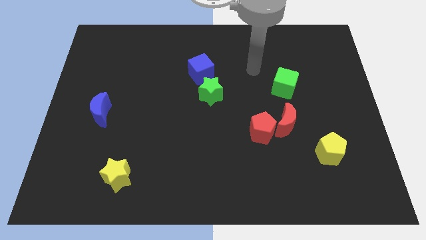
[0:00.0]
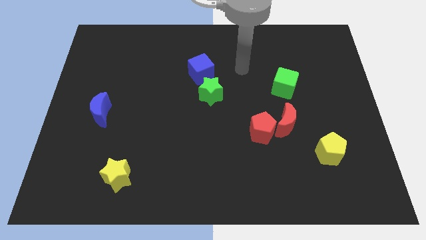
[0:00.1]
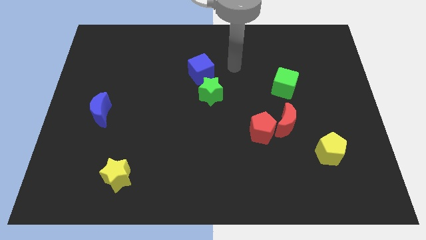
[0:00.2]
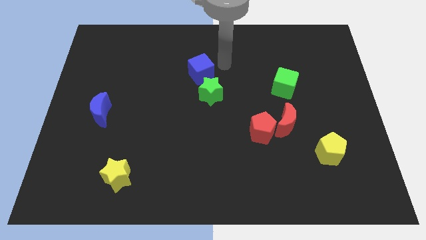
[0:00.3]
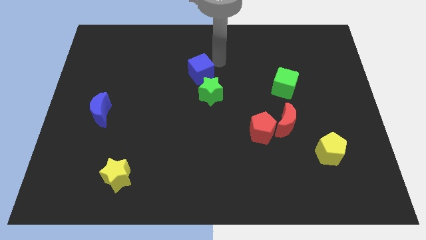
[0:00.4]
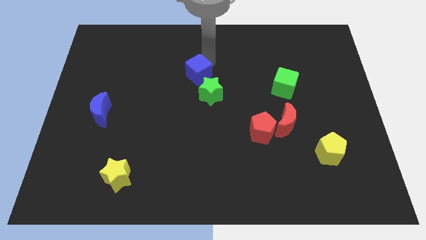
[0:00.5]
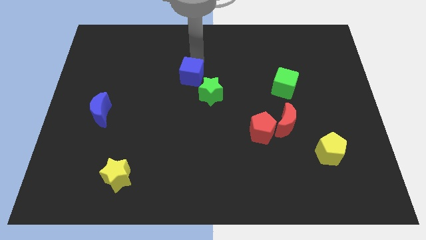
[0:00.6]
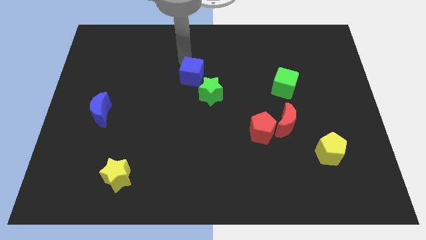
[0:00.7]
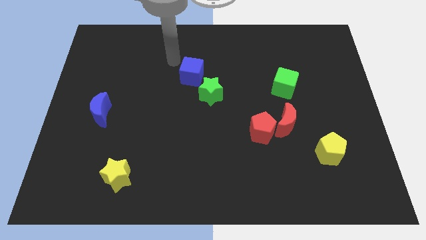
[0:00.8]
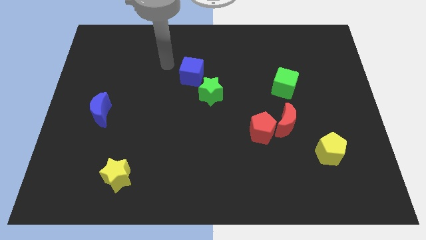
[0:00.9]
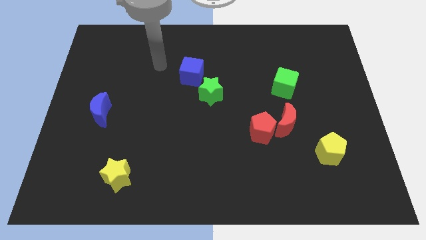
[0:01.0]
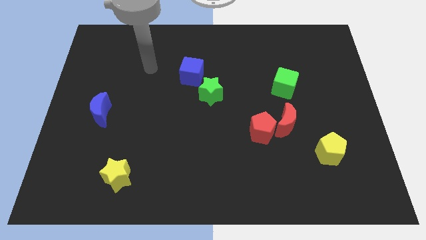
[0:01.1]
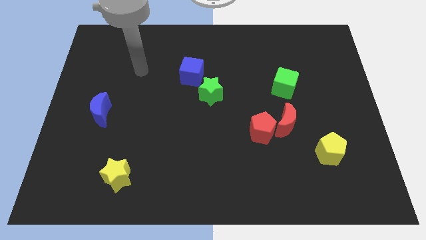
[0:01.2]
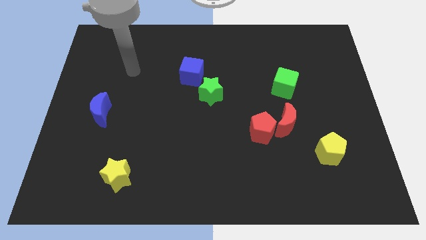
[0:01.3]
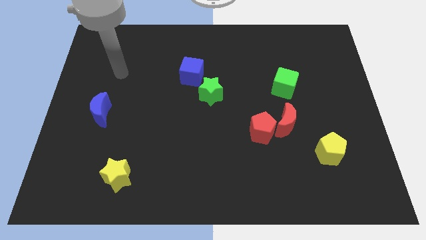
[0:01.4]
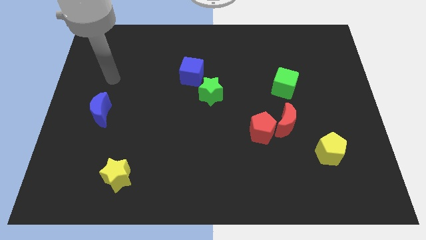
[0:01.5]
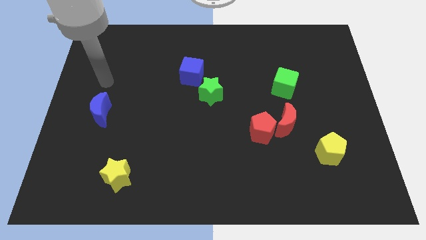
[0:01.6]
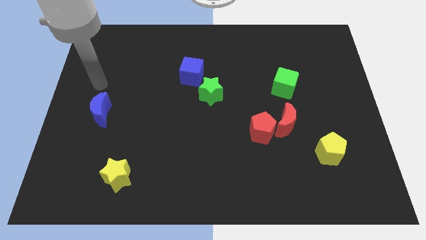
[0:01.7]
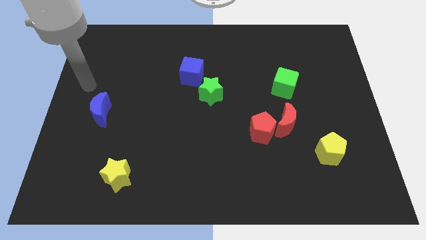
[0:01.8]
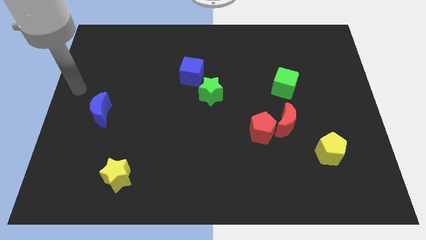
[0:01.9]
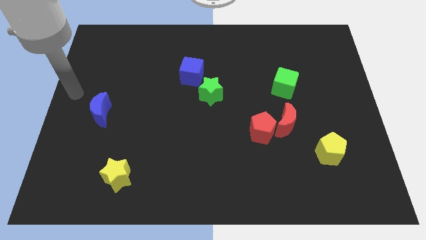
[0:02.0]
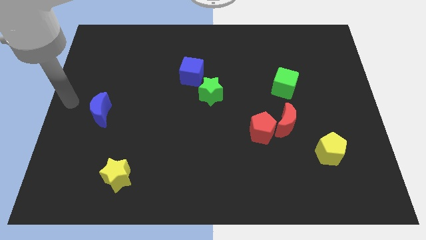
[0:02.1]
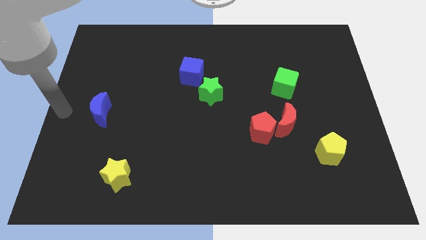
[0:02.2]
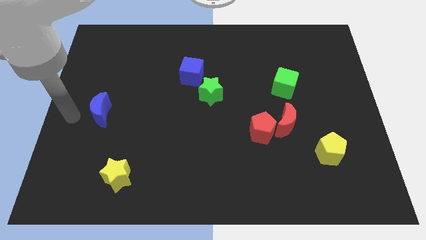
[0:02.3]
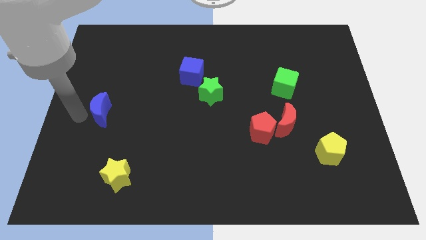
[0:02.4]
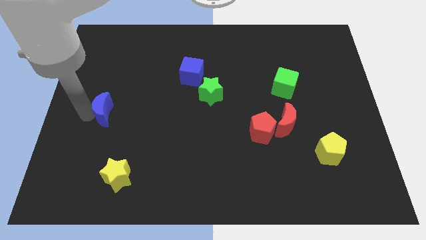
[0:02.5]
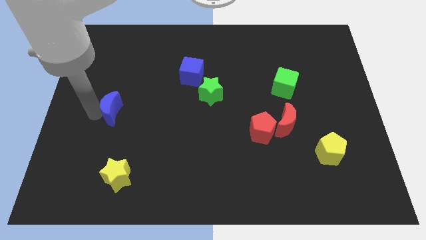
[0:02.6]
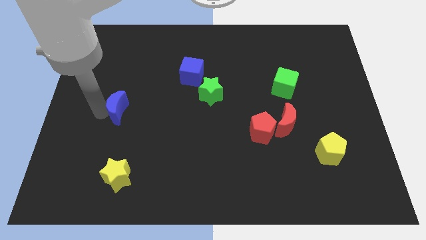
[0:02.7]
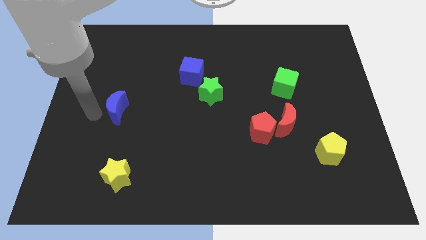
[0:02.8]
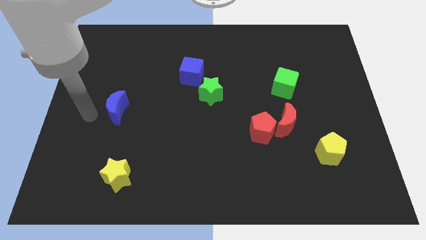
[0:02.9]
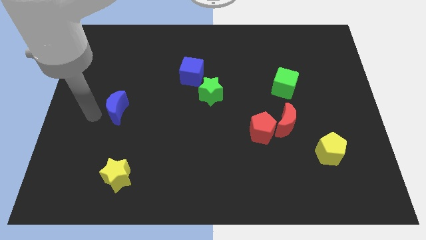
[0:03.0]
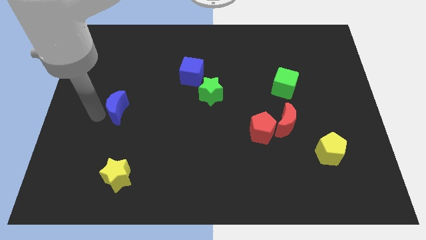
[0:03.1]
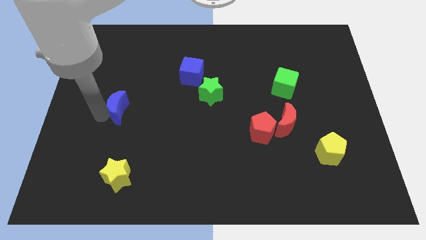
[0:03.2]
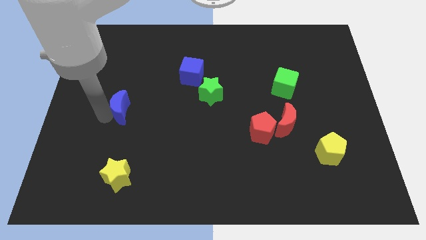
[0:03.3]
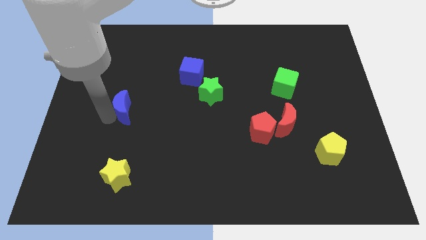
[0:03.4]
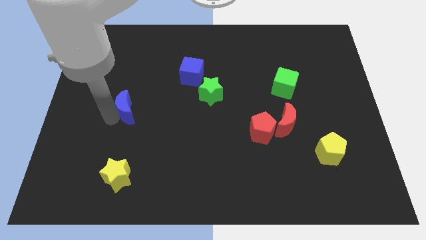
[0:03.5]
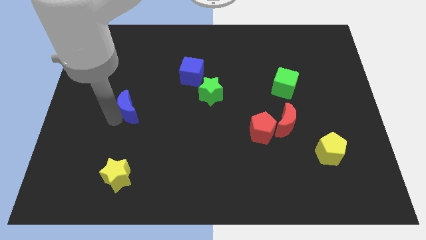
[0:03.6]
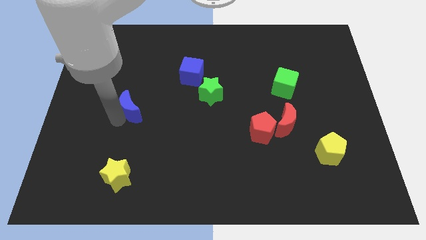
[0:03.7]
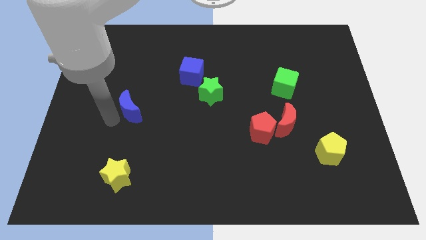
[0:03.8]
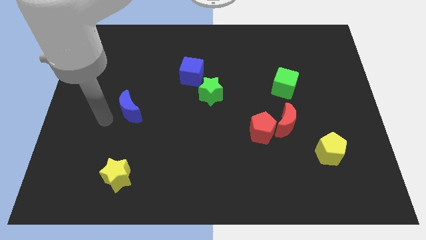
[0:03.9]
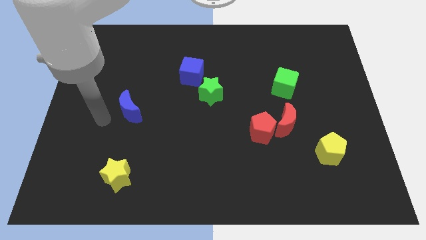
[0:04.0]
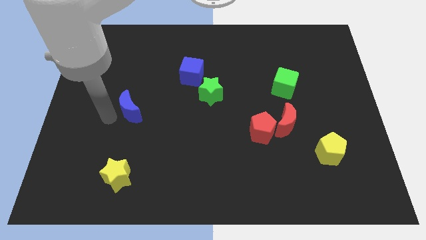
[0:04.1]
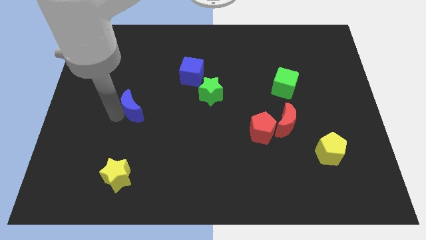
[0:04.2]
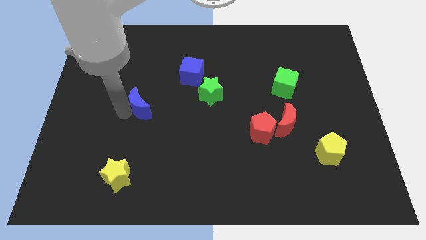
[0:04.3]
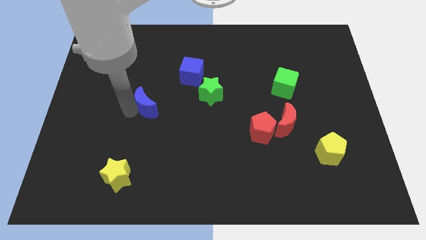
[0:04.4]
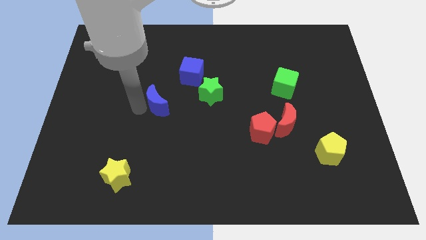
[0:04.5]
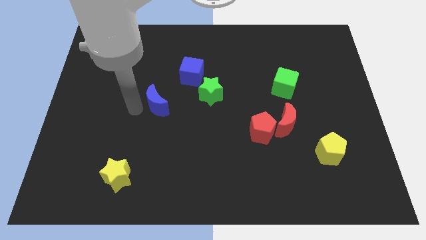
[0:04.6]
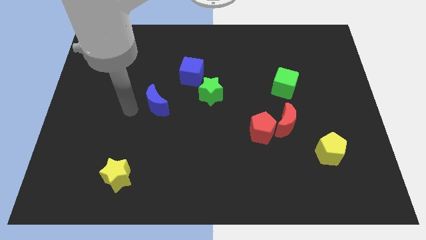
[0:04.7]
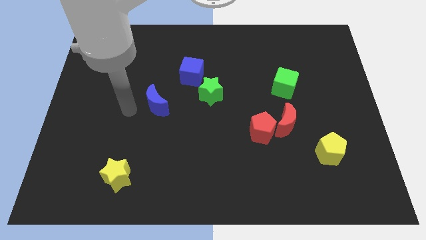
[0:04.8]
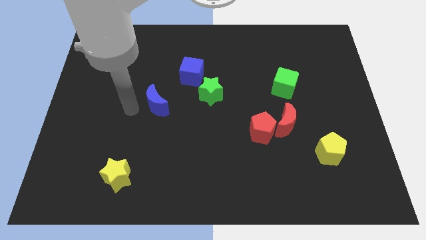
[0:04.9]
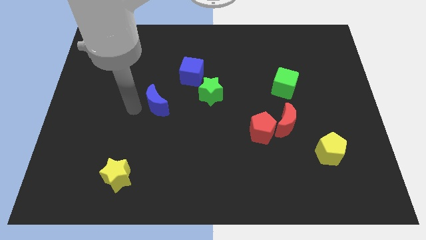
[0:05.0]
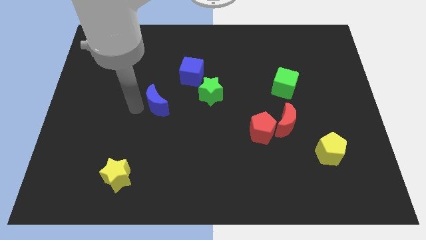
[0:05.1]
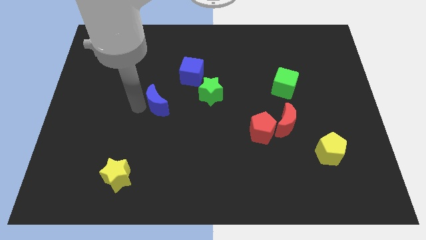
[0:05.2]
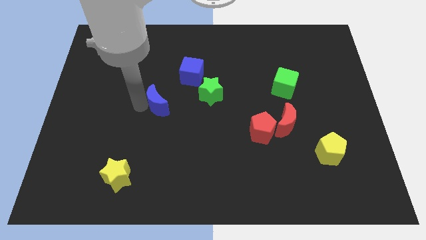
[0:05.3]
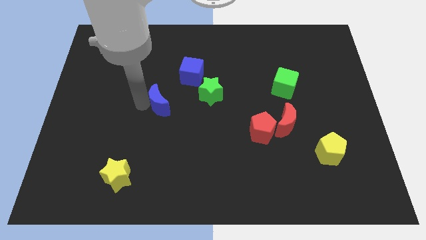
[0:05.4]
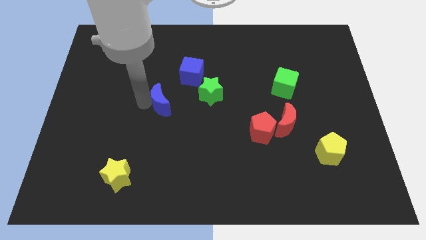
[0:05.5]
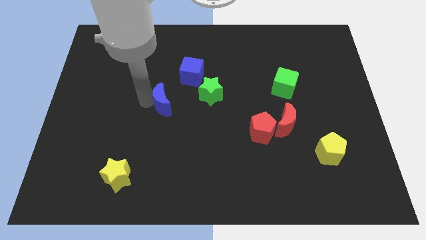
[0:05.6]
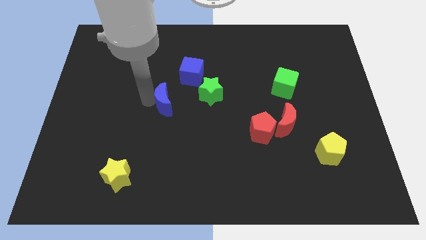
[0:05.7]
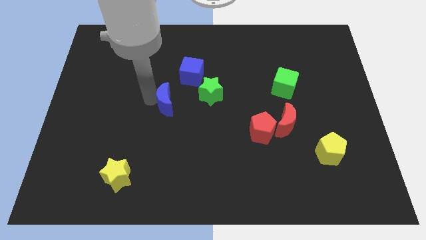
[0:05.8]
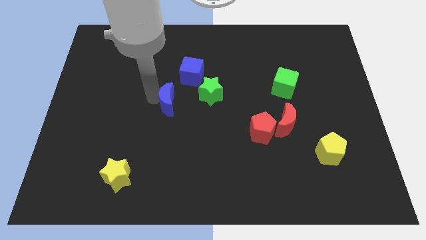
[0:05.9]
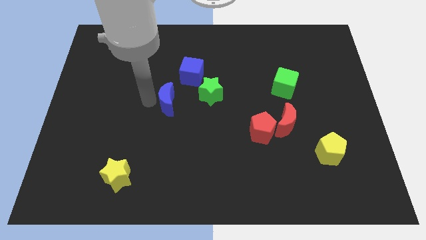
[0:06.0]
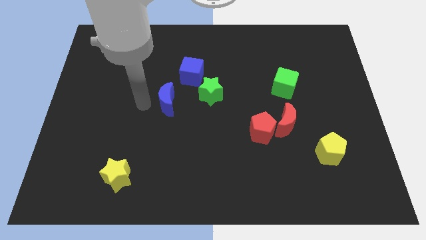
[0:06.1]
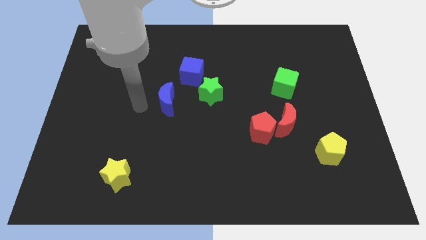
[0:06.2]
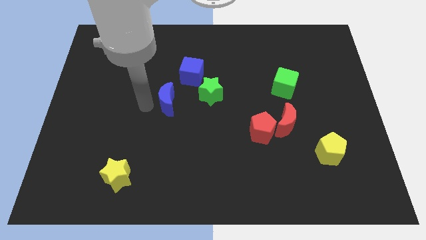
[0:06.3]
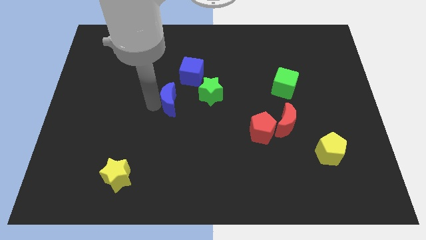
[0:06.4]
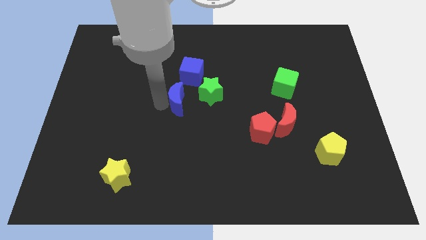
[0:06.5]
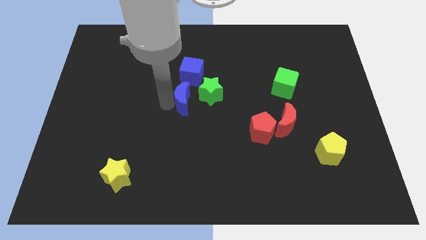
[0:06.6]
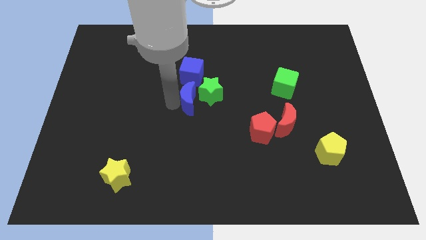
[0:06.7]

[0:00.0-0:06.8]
push the blue moon to the green star
